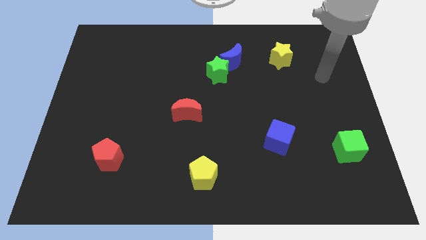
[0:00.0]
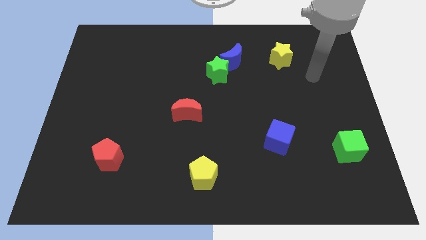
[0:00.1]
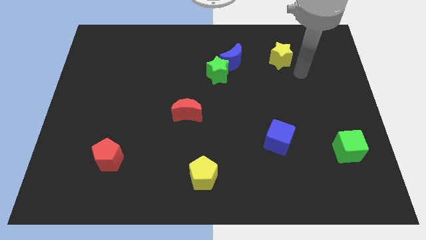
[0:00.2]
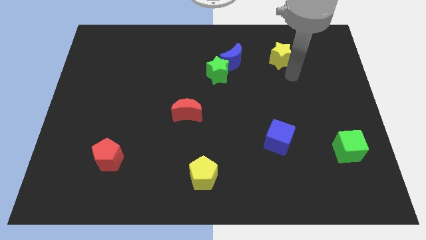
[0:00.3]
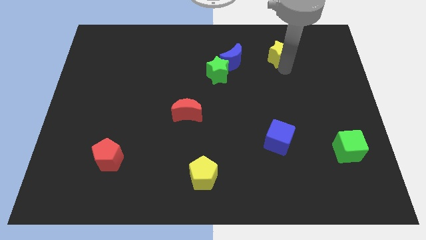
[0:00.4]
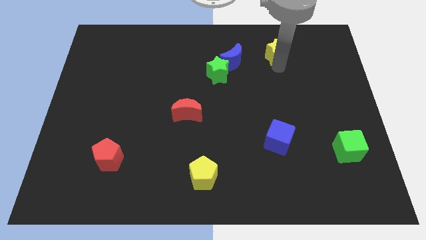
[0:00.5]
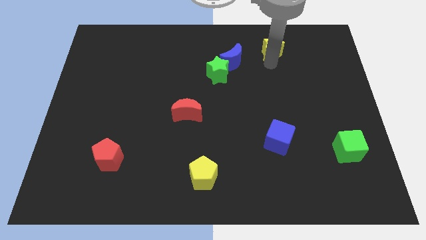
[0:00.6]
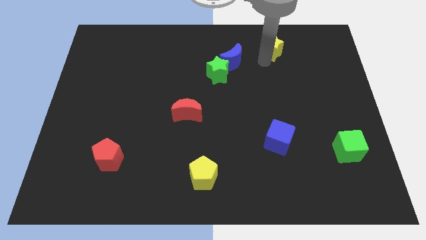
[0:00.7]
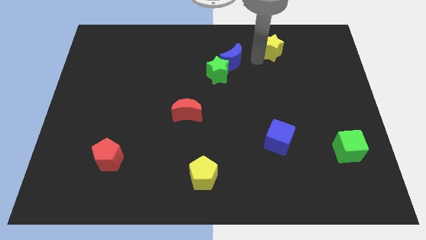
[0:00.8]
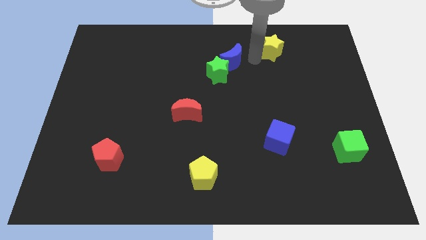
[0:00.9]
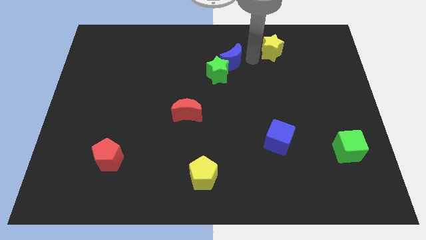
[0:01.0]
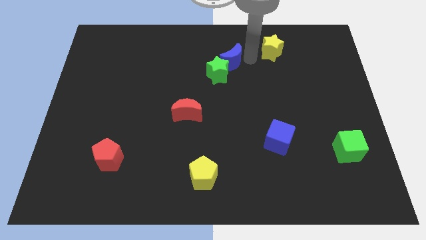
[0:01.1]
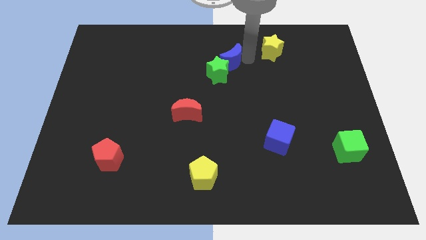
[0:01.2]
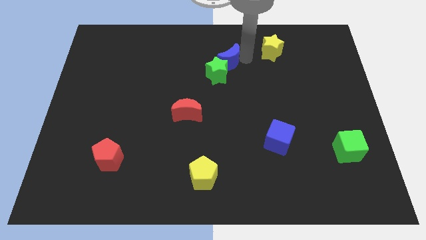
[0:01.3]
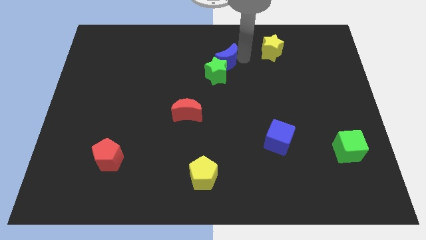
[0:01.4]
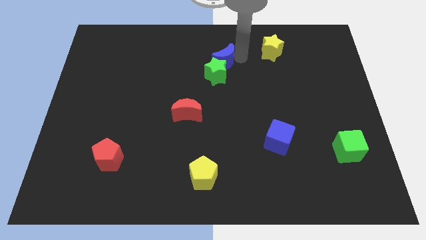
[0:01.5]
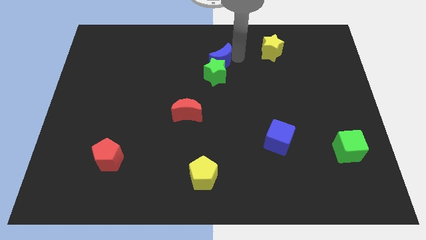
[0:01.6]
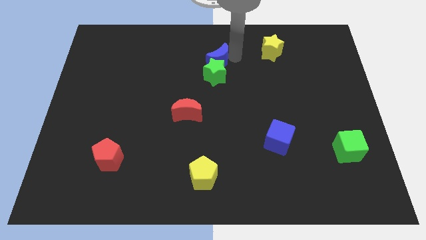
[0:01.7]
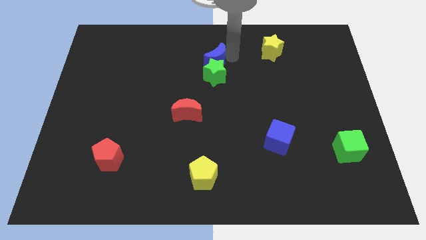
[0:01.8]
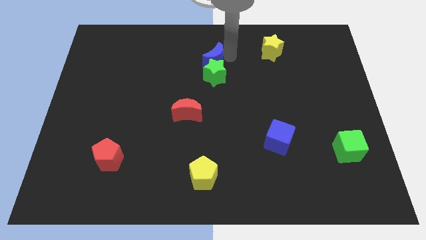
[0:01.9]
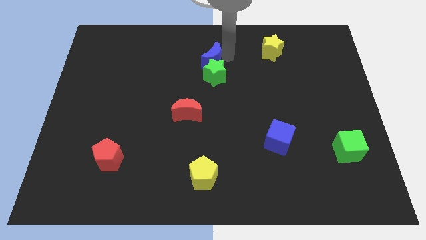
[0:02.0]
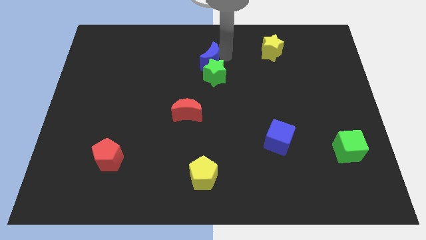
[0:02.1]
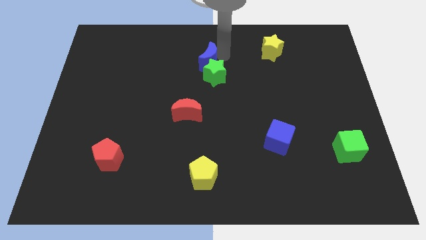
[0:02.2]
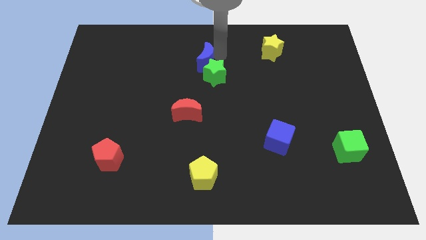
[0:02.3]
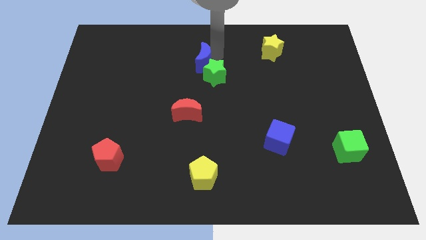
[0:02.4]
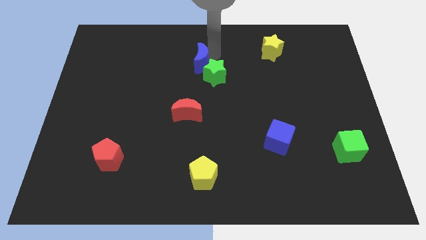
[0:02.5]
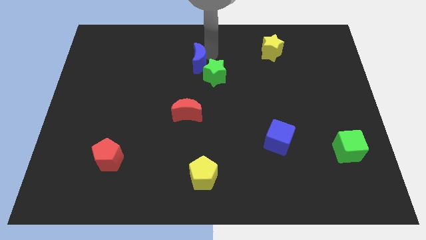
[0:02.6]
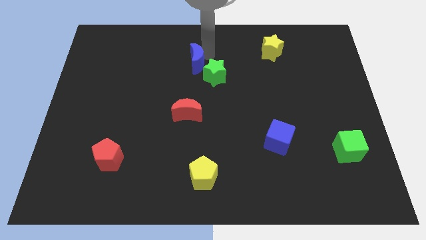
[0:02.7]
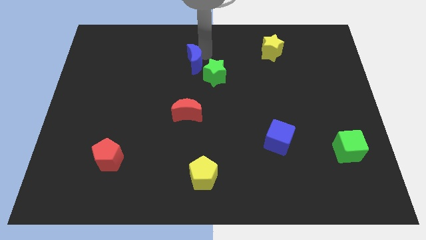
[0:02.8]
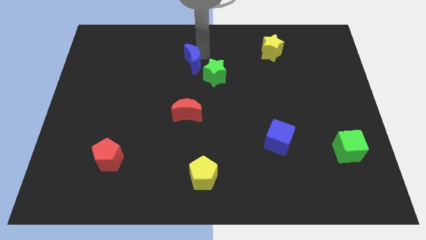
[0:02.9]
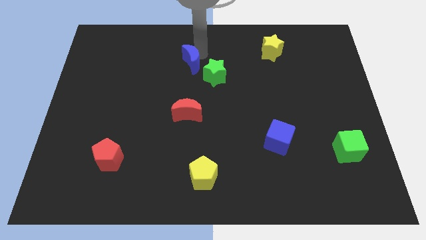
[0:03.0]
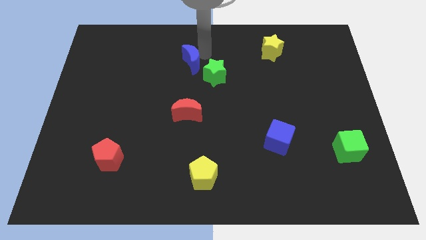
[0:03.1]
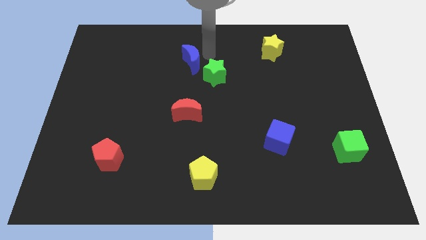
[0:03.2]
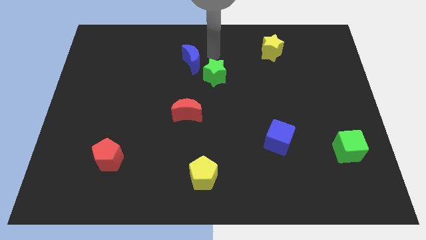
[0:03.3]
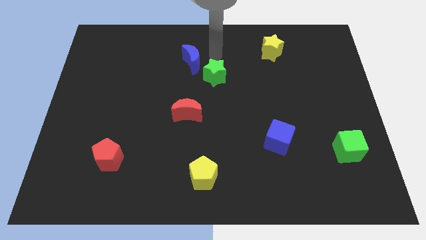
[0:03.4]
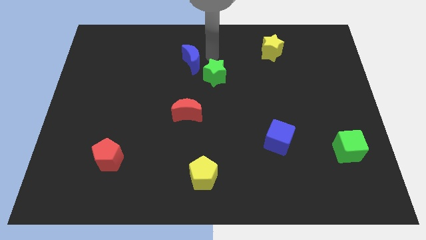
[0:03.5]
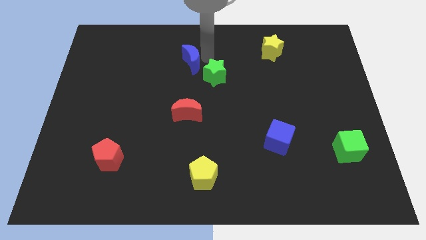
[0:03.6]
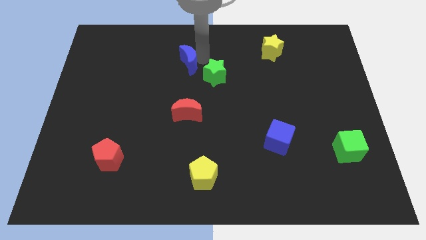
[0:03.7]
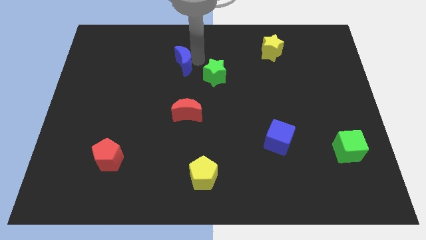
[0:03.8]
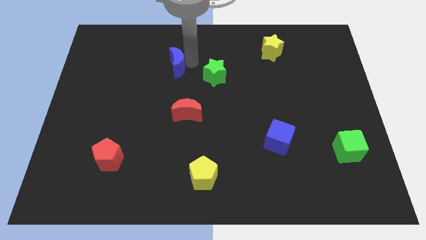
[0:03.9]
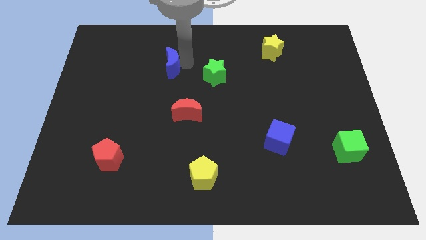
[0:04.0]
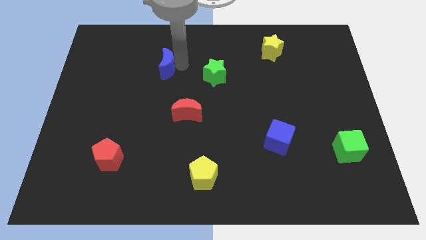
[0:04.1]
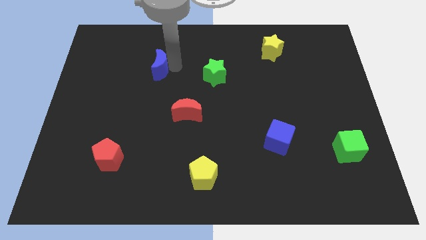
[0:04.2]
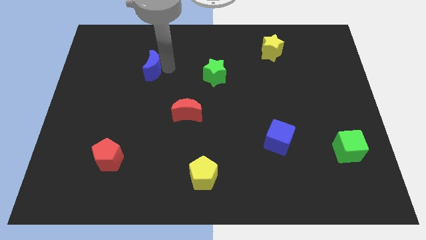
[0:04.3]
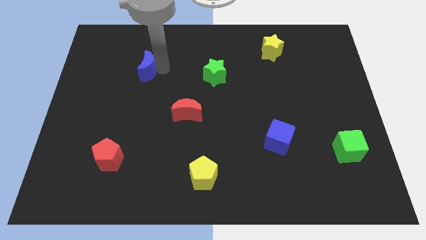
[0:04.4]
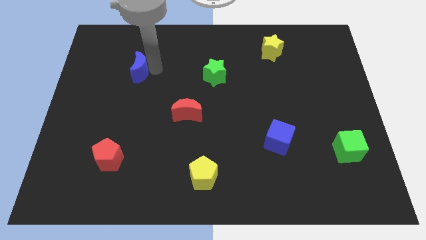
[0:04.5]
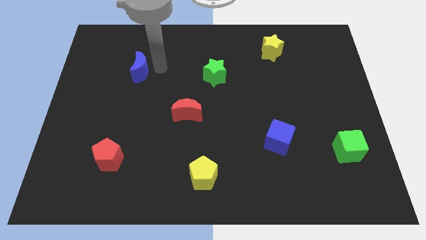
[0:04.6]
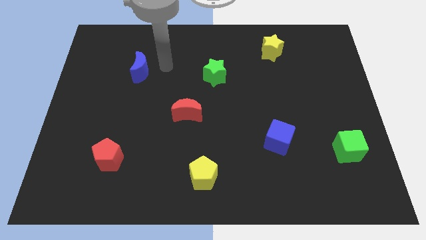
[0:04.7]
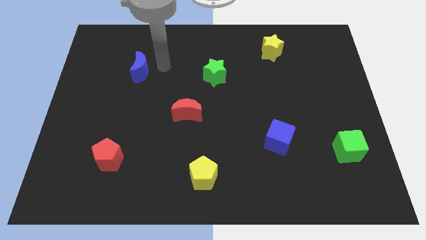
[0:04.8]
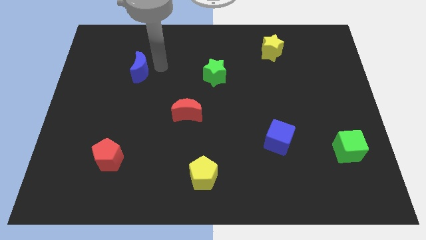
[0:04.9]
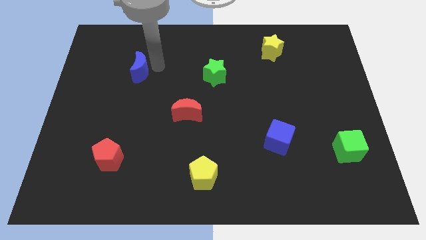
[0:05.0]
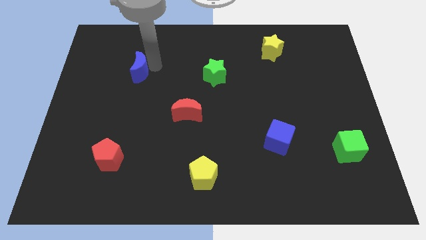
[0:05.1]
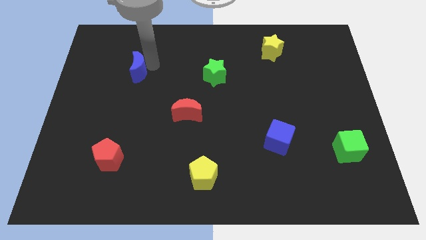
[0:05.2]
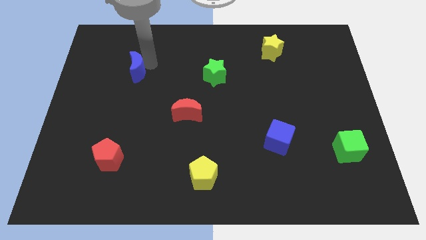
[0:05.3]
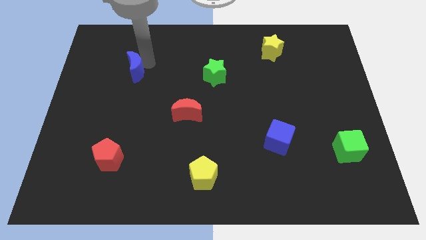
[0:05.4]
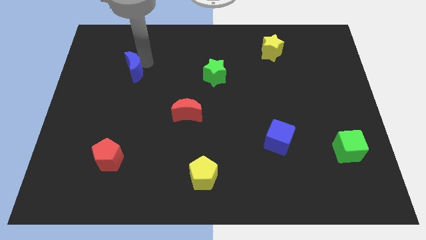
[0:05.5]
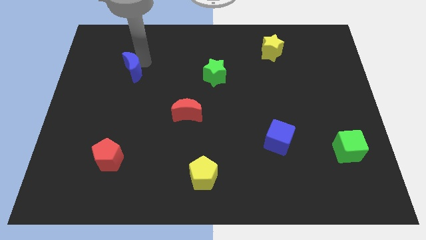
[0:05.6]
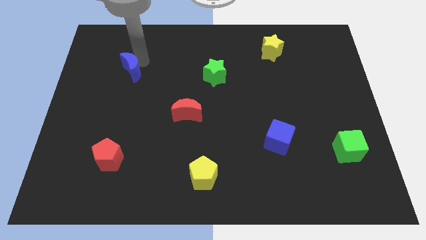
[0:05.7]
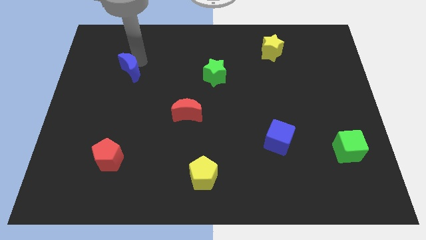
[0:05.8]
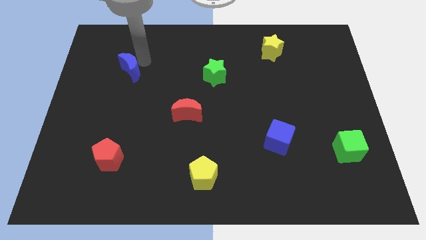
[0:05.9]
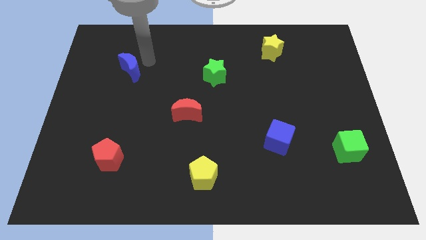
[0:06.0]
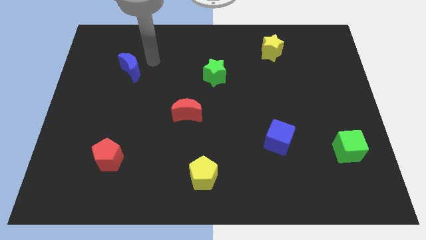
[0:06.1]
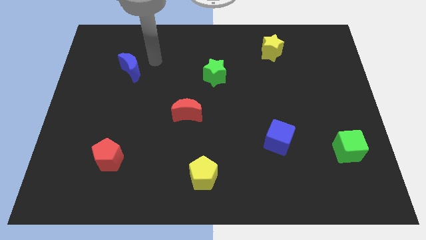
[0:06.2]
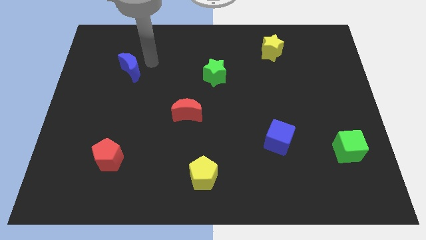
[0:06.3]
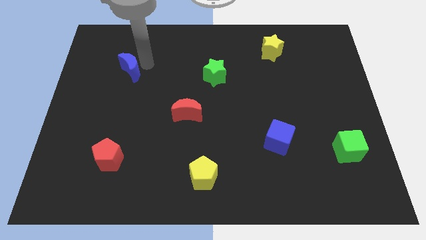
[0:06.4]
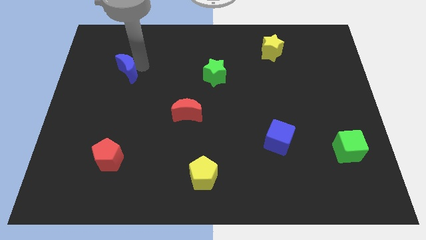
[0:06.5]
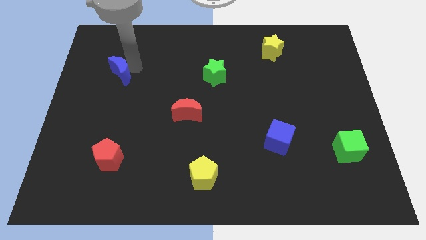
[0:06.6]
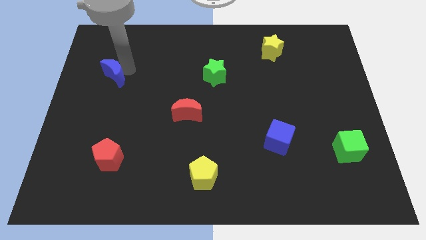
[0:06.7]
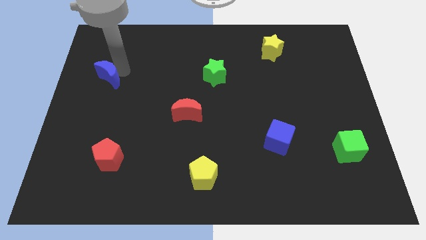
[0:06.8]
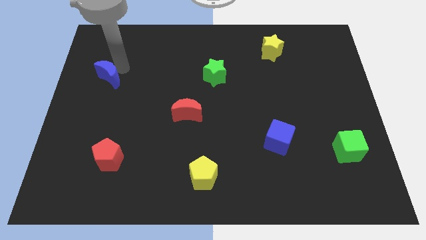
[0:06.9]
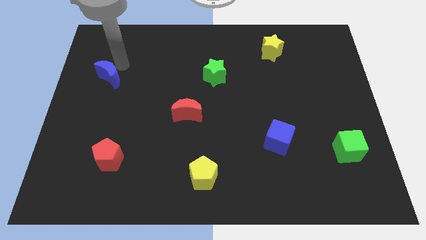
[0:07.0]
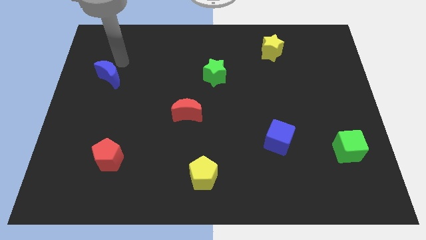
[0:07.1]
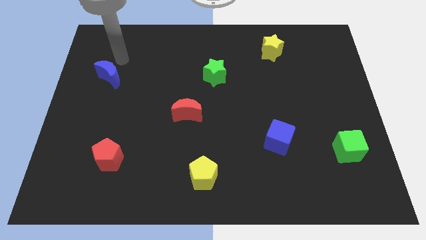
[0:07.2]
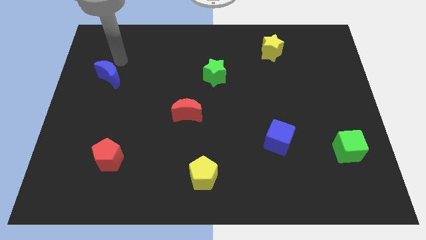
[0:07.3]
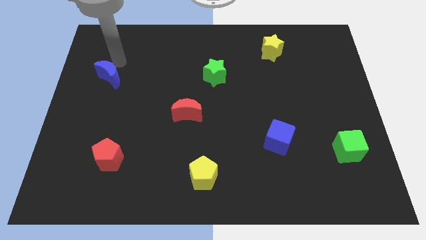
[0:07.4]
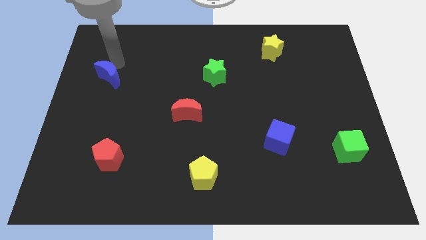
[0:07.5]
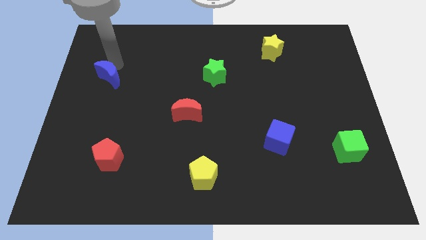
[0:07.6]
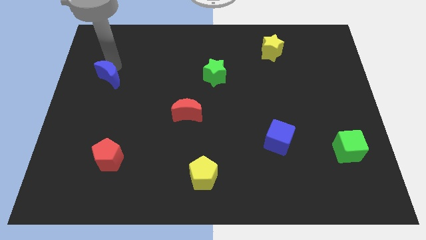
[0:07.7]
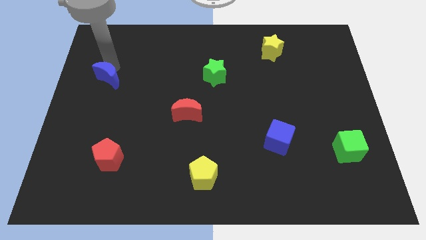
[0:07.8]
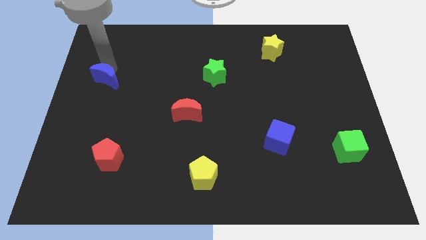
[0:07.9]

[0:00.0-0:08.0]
move the blue moon to the left side of the board
